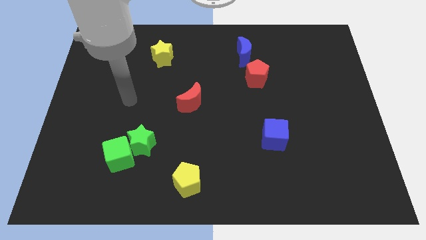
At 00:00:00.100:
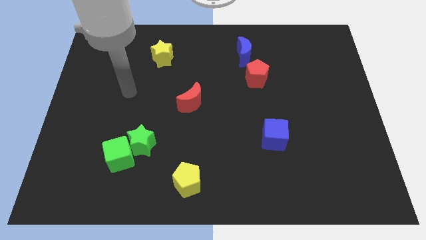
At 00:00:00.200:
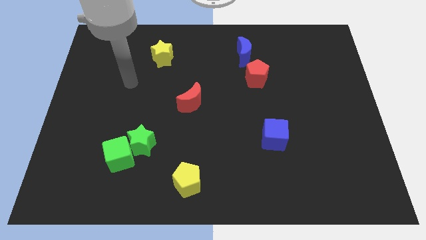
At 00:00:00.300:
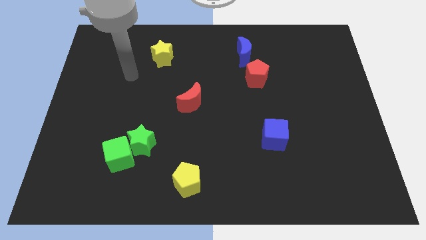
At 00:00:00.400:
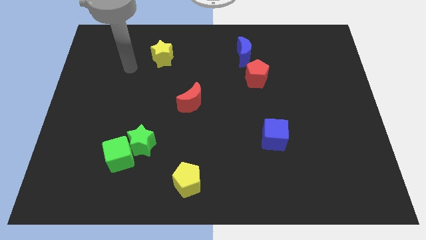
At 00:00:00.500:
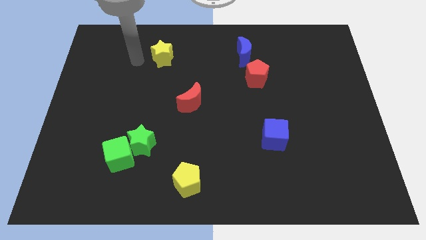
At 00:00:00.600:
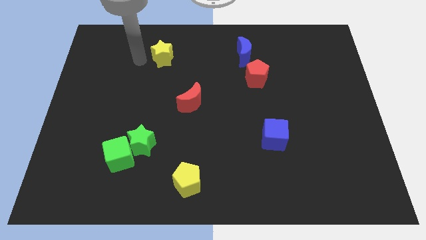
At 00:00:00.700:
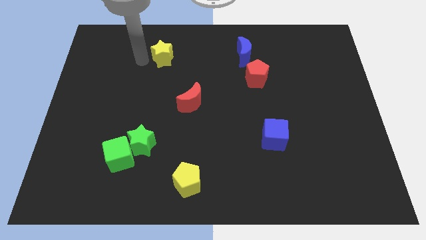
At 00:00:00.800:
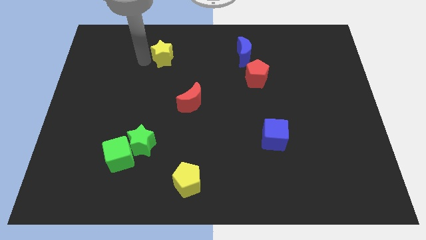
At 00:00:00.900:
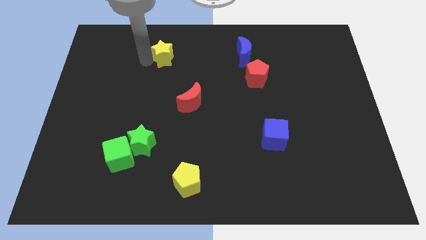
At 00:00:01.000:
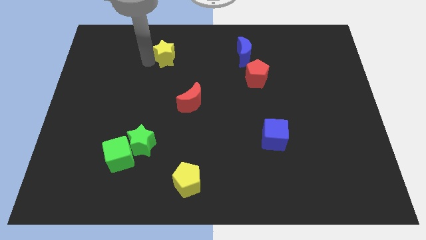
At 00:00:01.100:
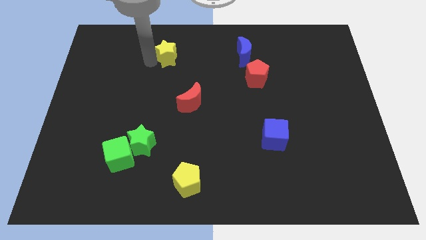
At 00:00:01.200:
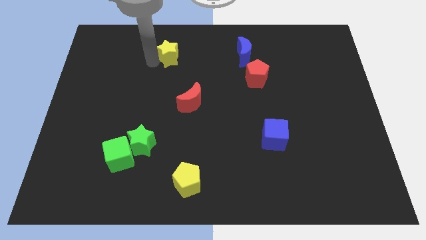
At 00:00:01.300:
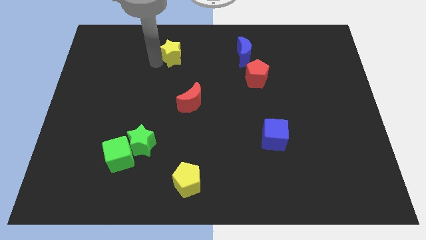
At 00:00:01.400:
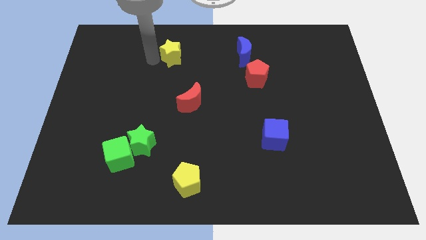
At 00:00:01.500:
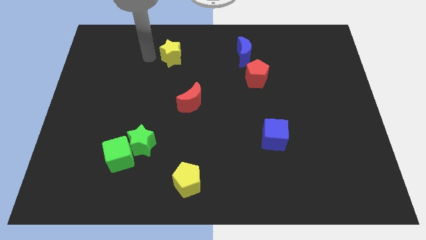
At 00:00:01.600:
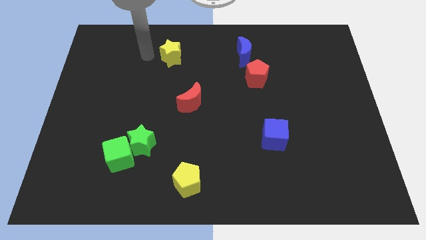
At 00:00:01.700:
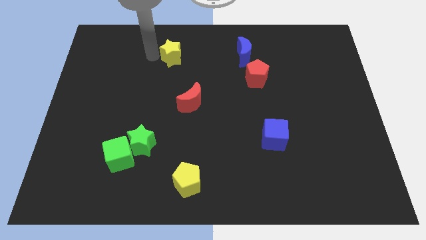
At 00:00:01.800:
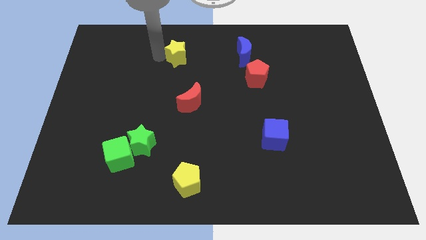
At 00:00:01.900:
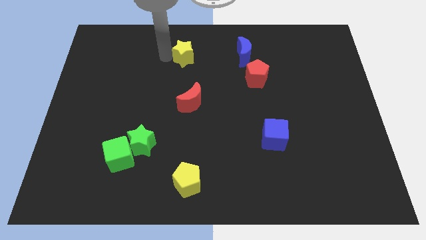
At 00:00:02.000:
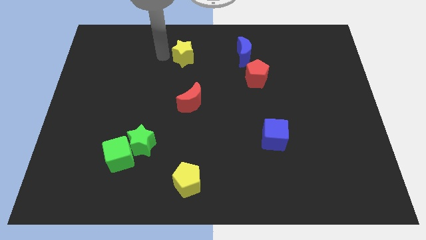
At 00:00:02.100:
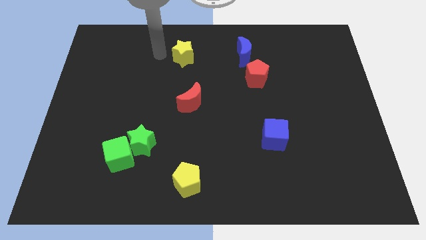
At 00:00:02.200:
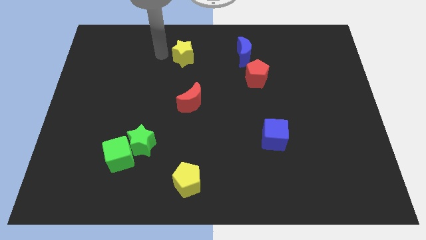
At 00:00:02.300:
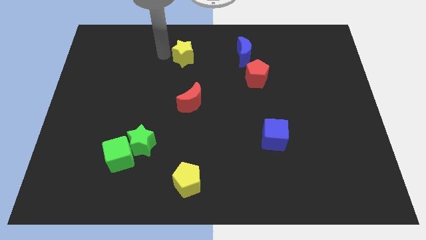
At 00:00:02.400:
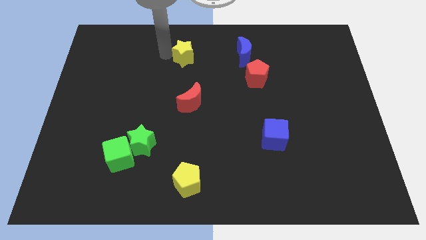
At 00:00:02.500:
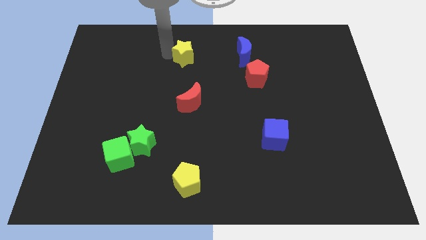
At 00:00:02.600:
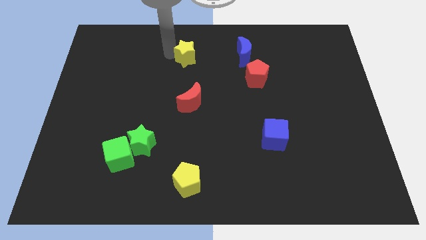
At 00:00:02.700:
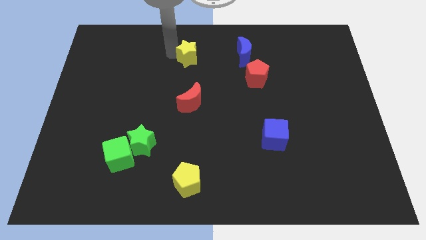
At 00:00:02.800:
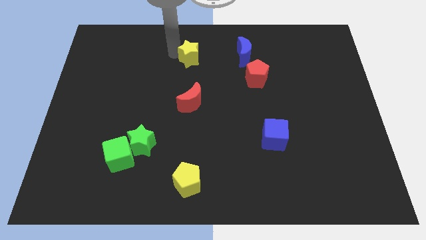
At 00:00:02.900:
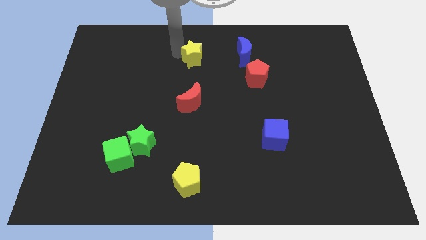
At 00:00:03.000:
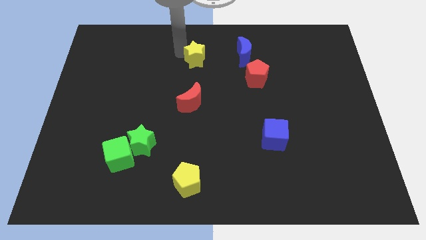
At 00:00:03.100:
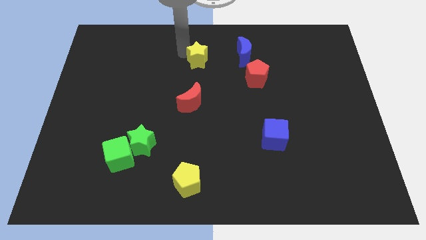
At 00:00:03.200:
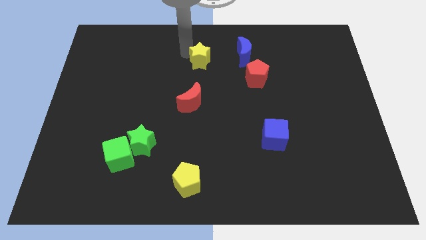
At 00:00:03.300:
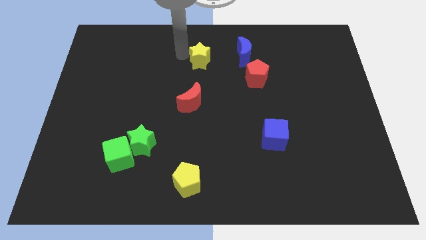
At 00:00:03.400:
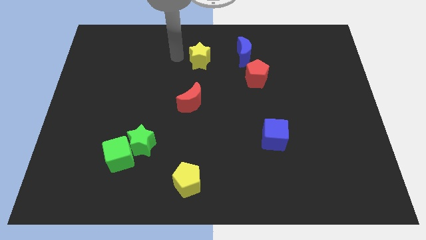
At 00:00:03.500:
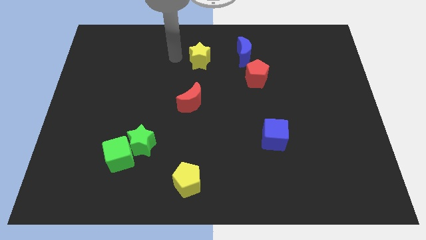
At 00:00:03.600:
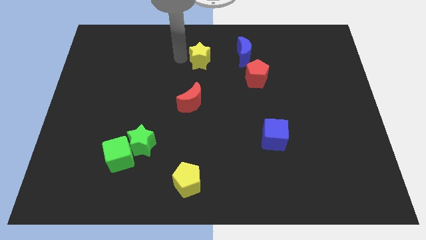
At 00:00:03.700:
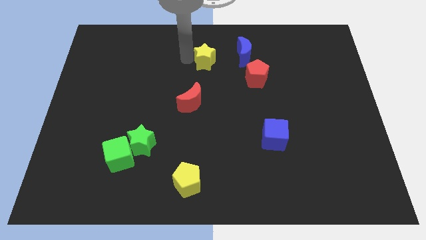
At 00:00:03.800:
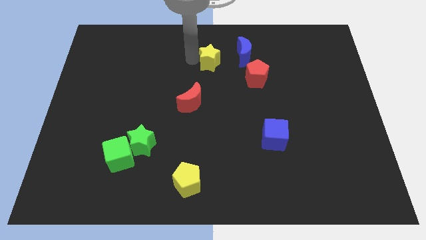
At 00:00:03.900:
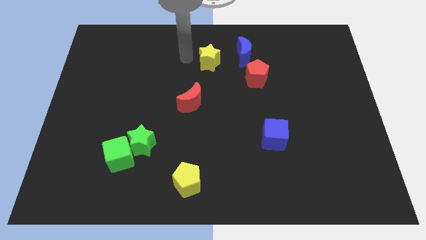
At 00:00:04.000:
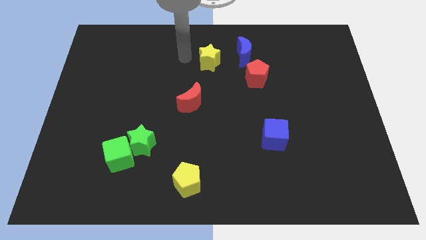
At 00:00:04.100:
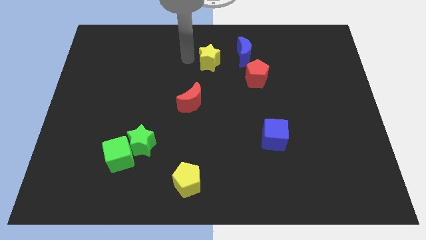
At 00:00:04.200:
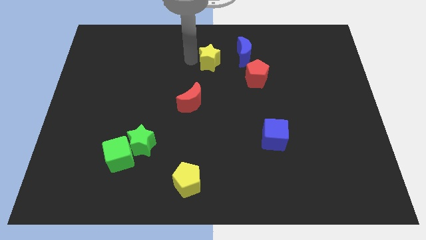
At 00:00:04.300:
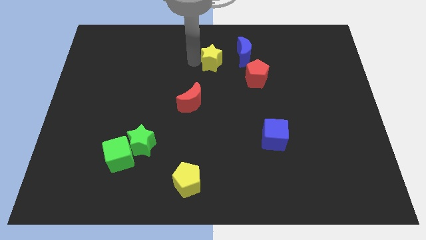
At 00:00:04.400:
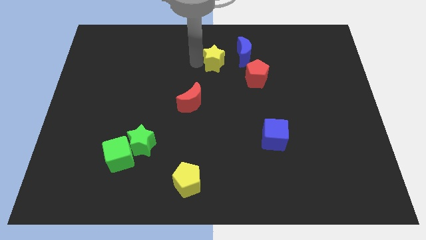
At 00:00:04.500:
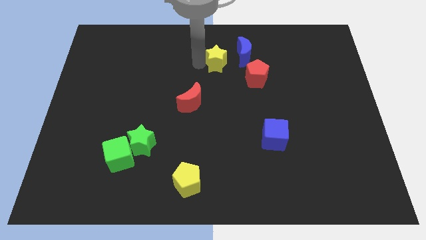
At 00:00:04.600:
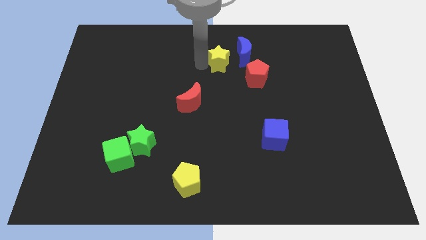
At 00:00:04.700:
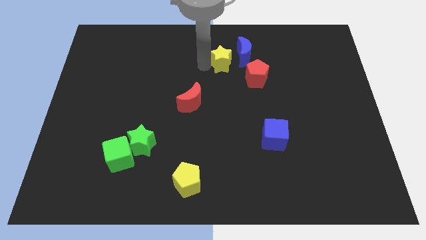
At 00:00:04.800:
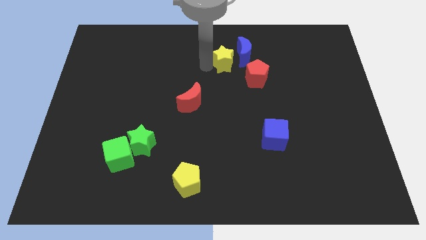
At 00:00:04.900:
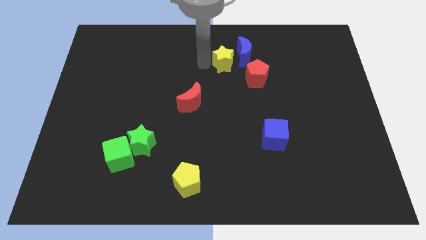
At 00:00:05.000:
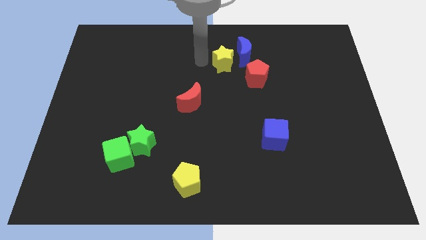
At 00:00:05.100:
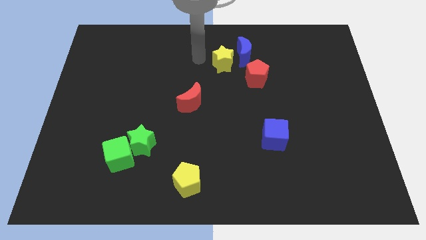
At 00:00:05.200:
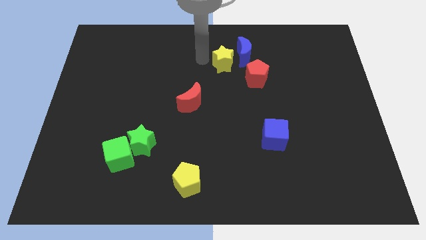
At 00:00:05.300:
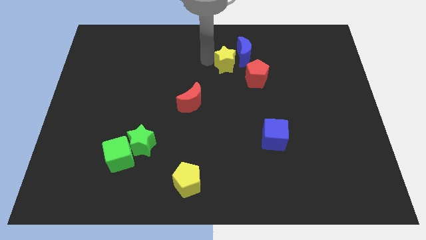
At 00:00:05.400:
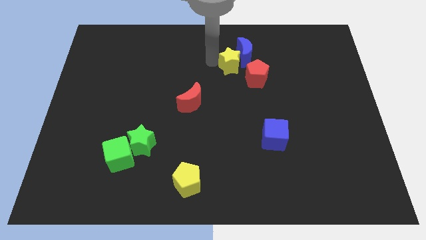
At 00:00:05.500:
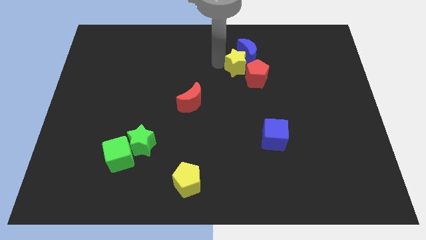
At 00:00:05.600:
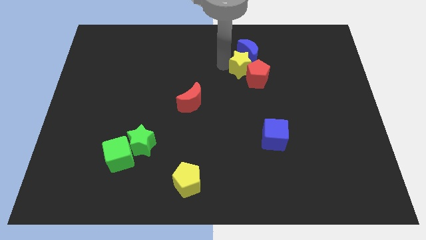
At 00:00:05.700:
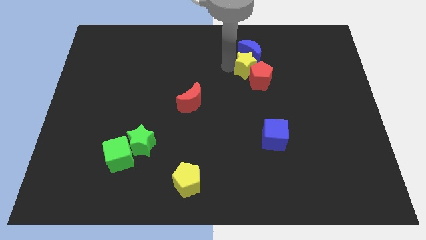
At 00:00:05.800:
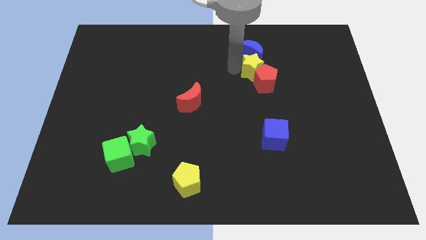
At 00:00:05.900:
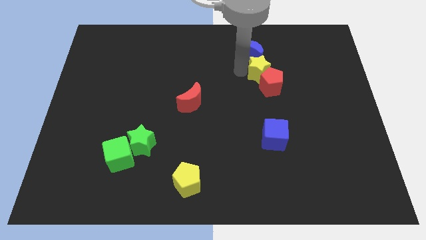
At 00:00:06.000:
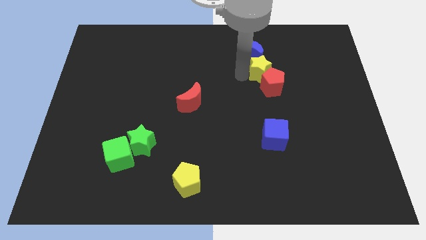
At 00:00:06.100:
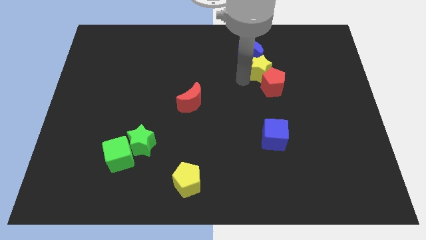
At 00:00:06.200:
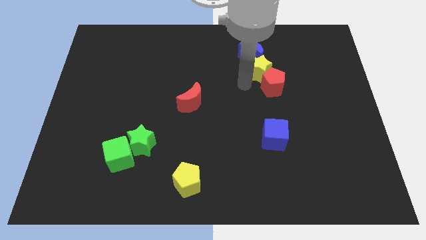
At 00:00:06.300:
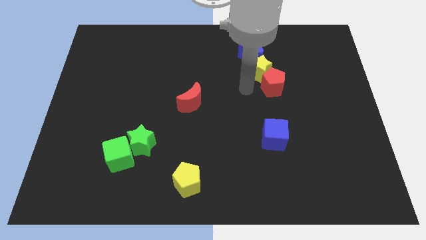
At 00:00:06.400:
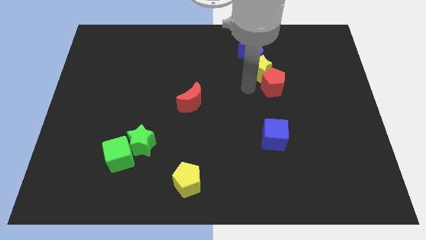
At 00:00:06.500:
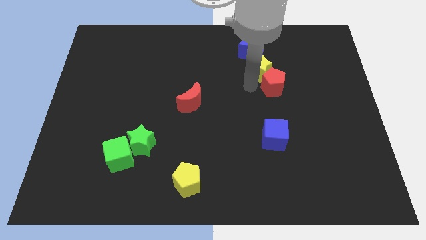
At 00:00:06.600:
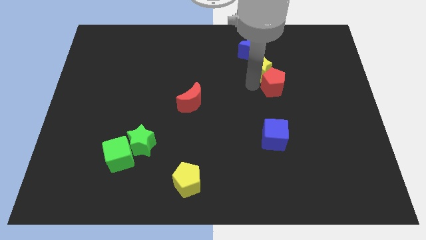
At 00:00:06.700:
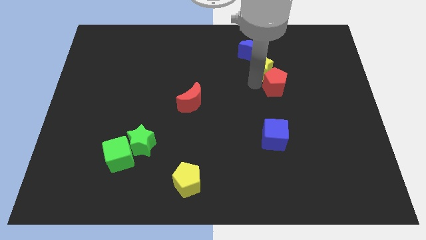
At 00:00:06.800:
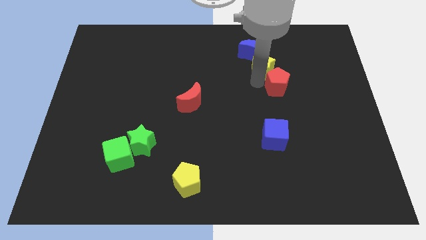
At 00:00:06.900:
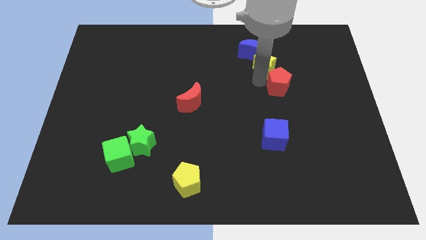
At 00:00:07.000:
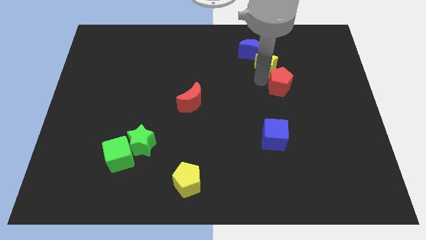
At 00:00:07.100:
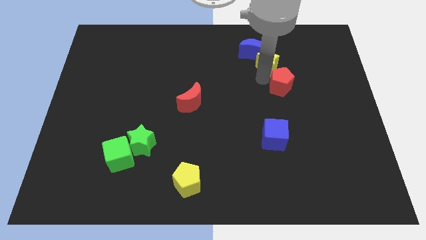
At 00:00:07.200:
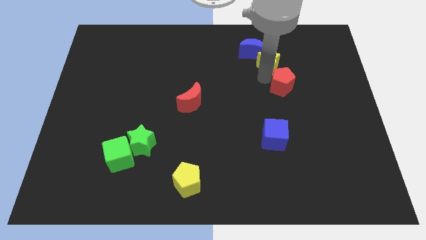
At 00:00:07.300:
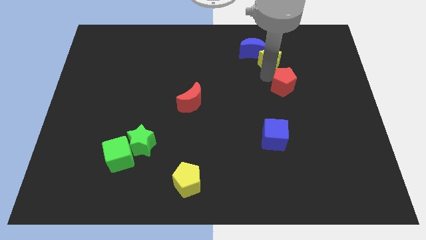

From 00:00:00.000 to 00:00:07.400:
move the yellow star to the right of the blue moon

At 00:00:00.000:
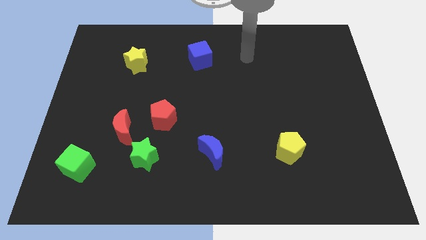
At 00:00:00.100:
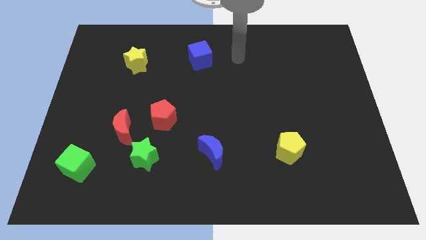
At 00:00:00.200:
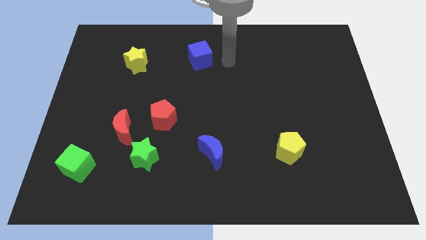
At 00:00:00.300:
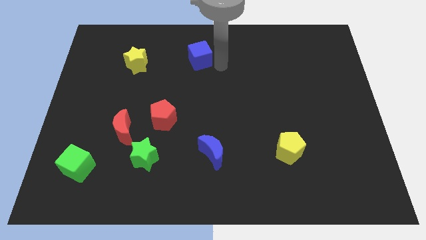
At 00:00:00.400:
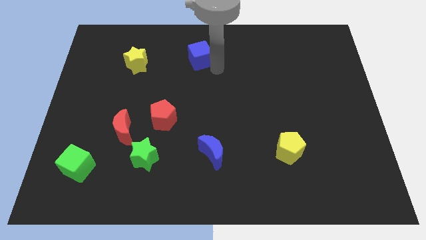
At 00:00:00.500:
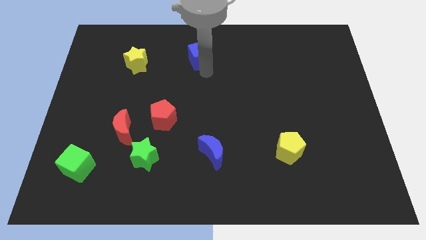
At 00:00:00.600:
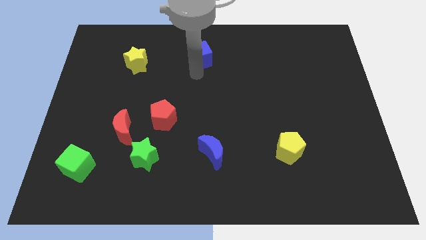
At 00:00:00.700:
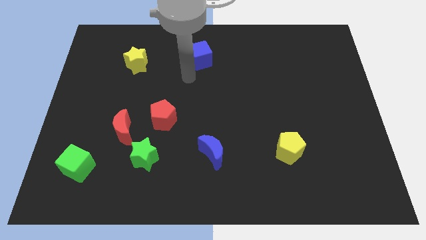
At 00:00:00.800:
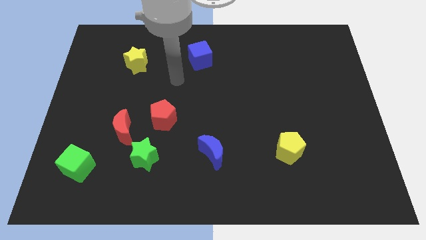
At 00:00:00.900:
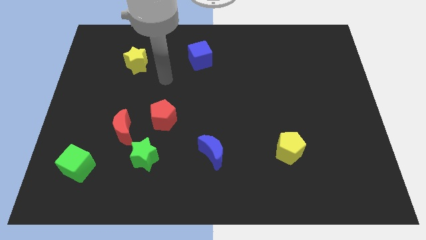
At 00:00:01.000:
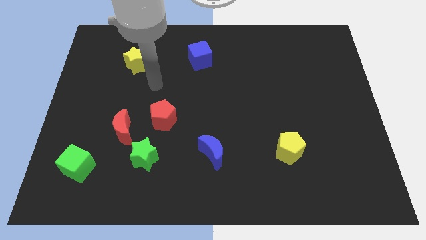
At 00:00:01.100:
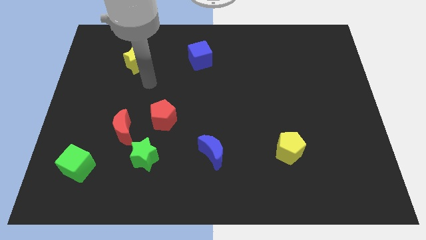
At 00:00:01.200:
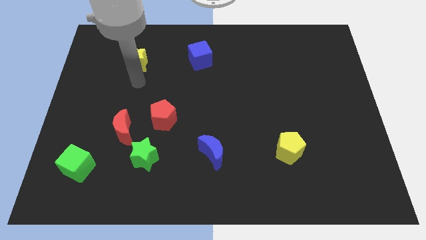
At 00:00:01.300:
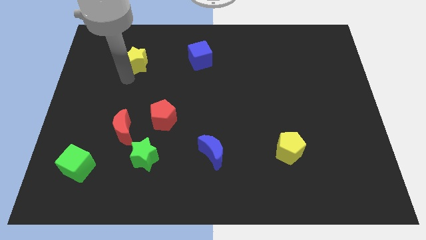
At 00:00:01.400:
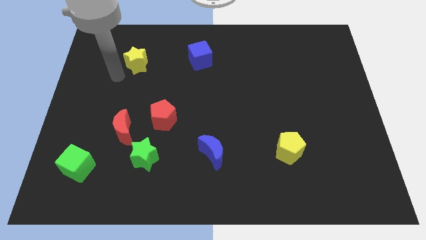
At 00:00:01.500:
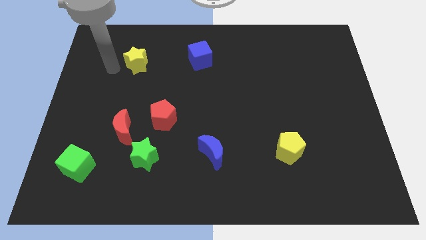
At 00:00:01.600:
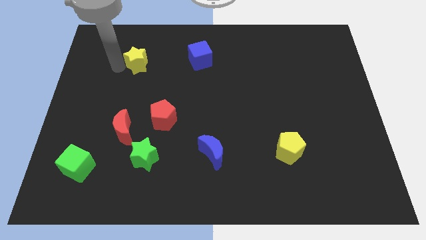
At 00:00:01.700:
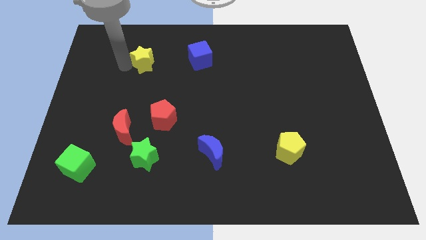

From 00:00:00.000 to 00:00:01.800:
put the yellow star to the left side of the blue cube
